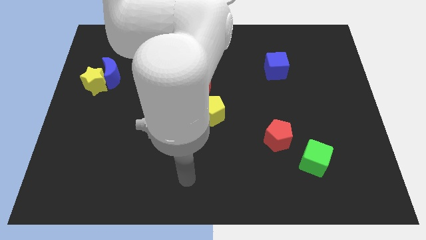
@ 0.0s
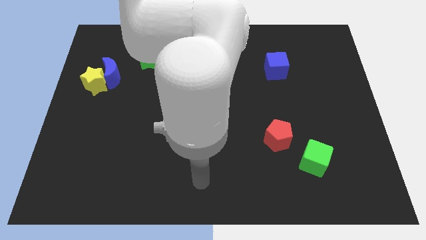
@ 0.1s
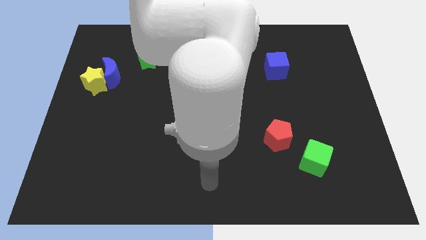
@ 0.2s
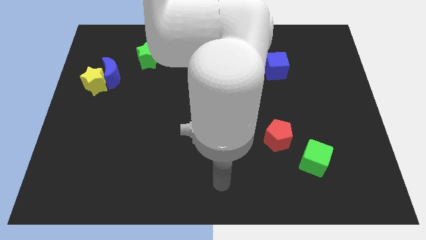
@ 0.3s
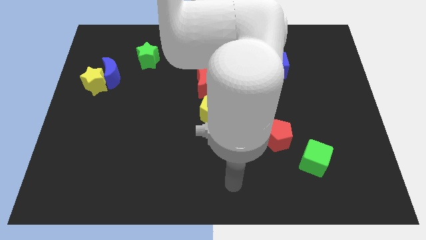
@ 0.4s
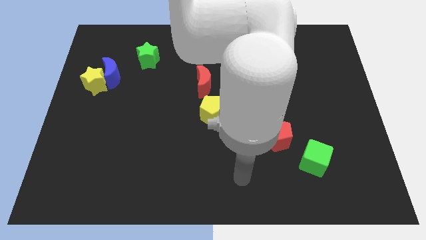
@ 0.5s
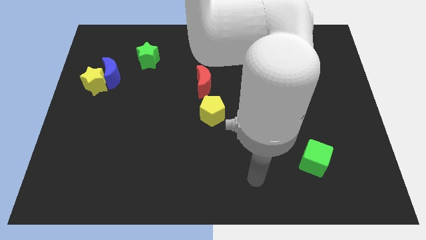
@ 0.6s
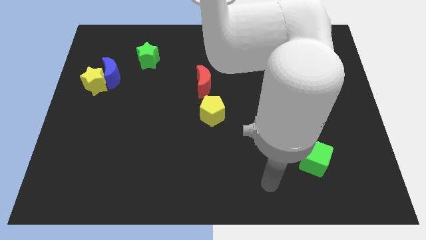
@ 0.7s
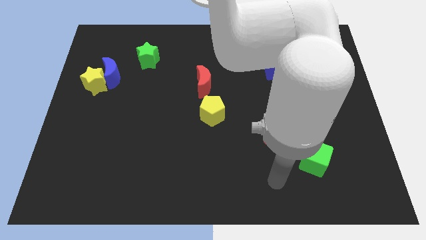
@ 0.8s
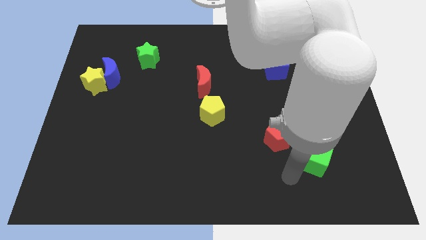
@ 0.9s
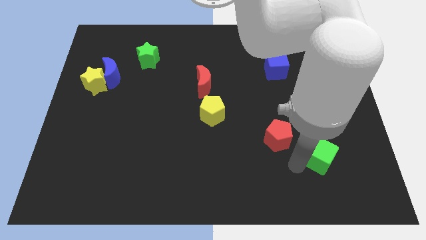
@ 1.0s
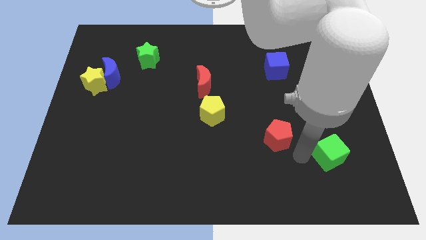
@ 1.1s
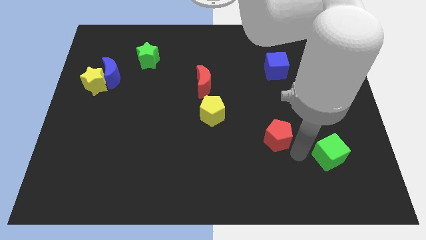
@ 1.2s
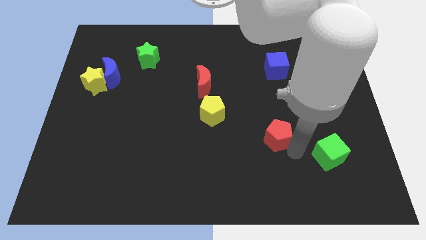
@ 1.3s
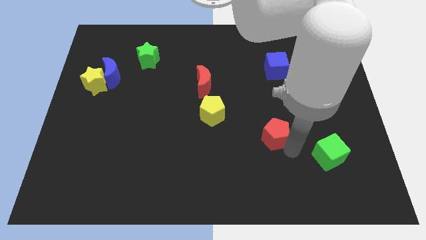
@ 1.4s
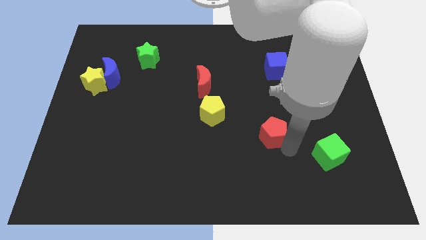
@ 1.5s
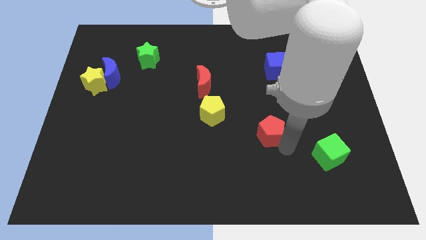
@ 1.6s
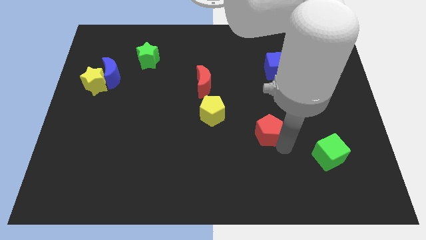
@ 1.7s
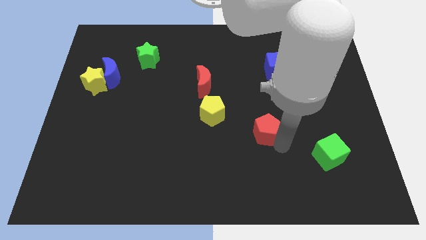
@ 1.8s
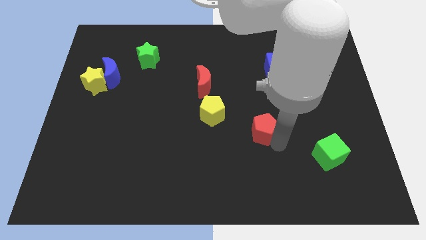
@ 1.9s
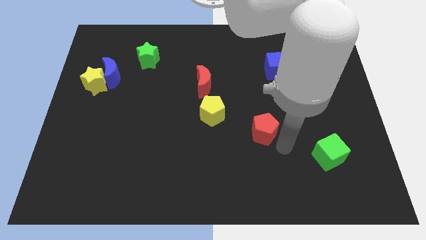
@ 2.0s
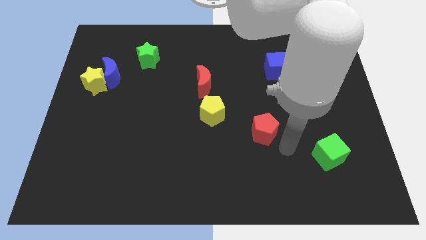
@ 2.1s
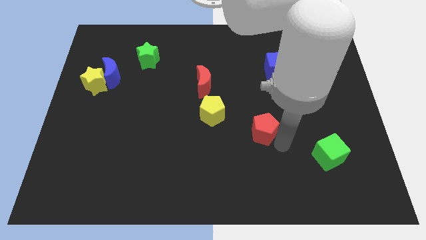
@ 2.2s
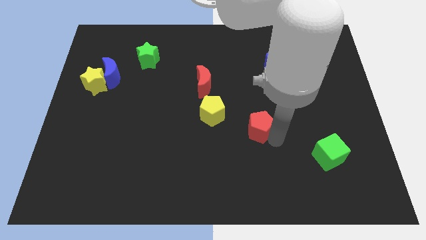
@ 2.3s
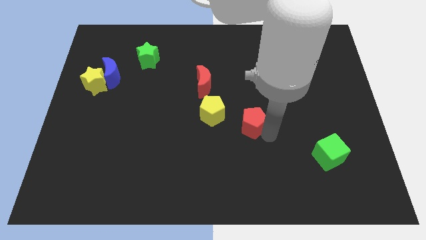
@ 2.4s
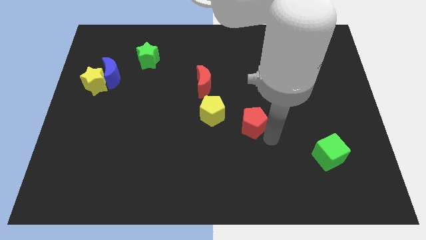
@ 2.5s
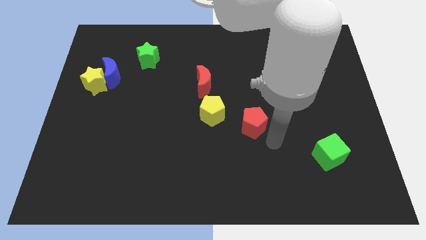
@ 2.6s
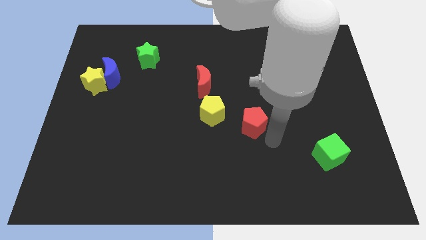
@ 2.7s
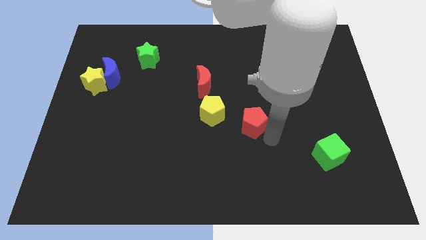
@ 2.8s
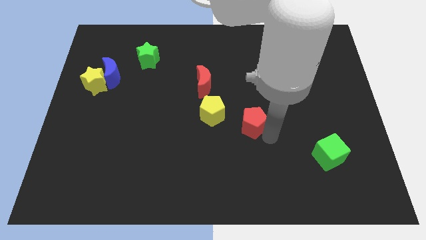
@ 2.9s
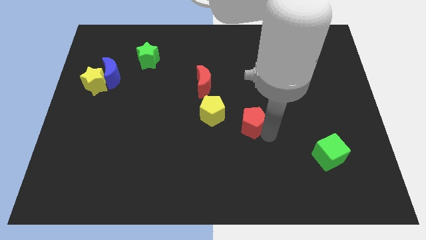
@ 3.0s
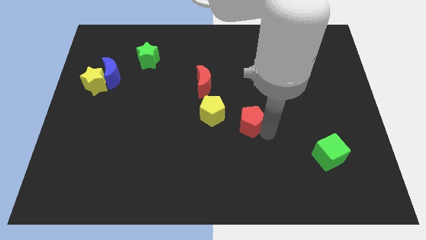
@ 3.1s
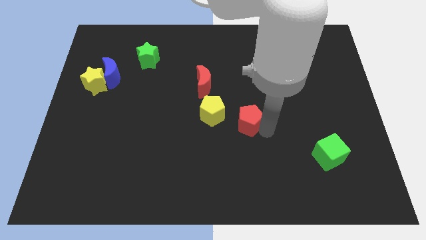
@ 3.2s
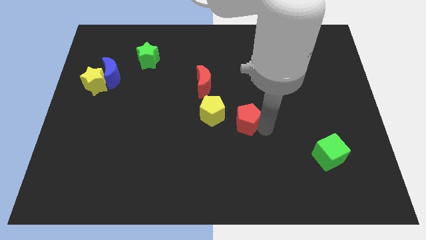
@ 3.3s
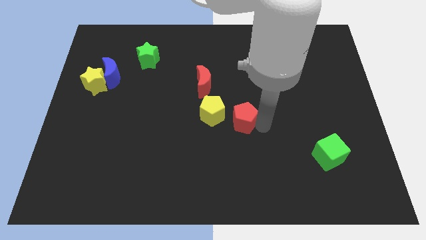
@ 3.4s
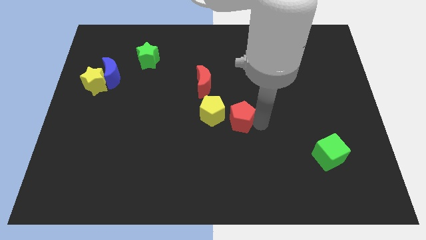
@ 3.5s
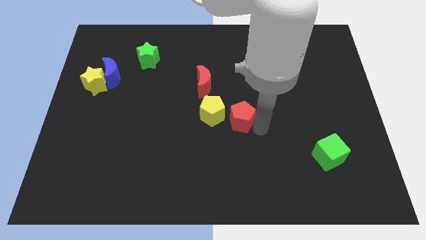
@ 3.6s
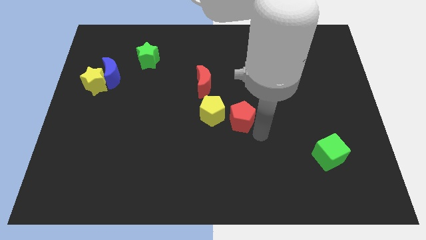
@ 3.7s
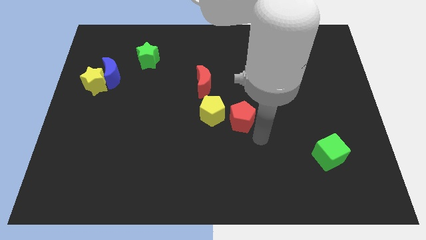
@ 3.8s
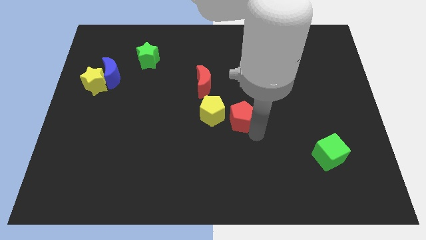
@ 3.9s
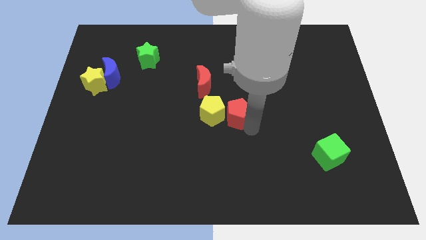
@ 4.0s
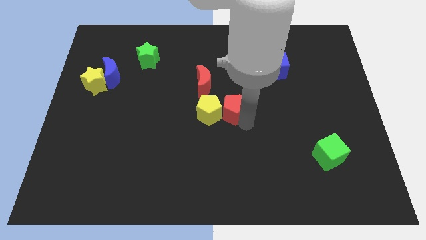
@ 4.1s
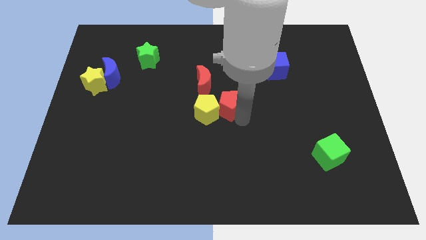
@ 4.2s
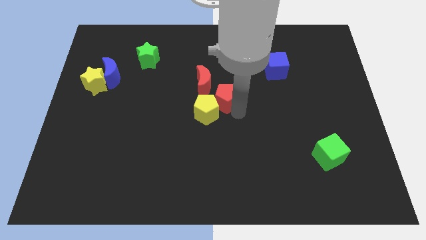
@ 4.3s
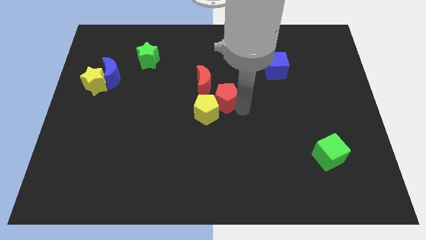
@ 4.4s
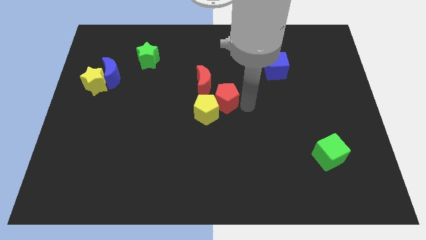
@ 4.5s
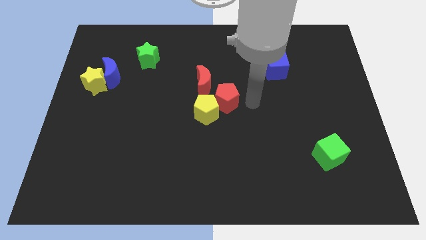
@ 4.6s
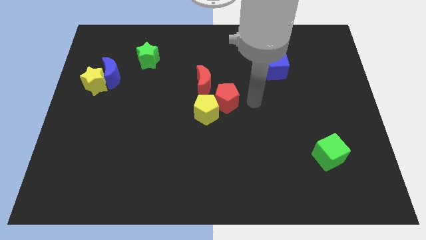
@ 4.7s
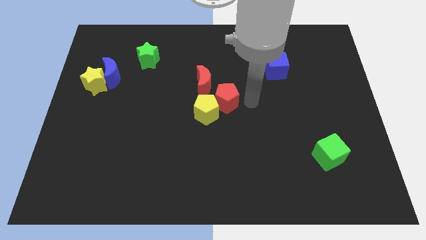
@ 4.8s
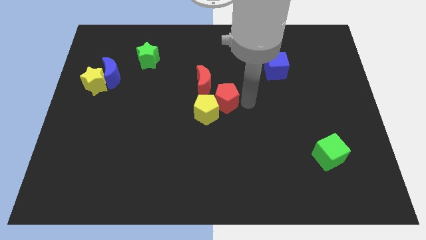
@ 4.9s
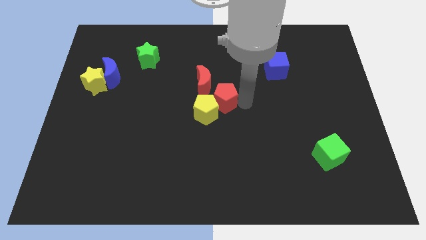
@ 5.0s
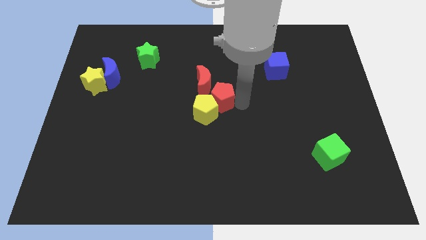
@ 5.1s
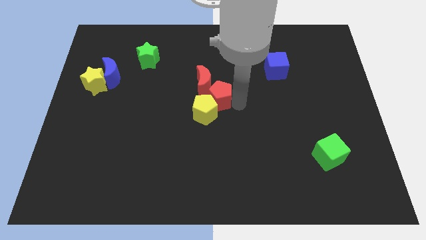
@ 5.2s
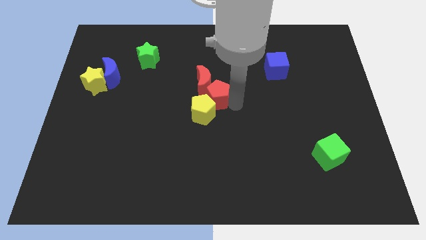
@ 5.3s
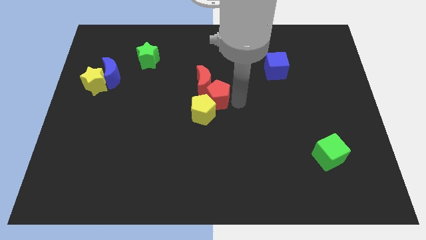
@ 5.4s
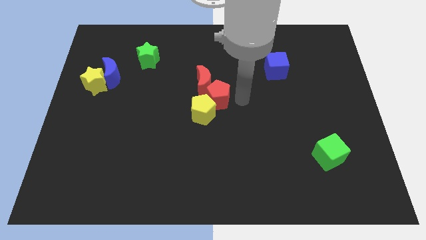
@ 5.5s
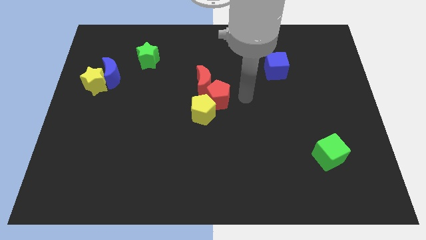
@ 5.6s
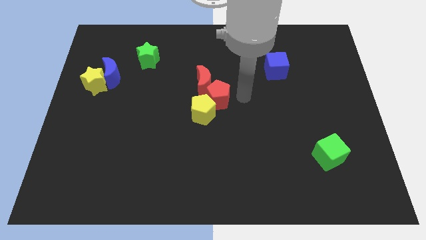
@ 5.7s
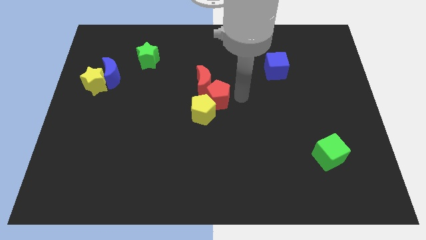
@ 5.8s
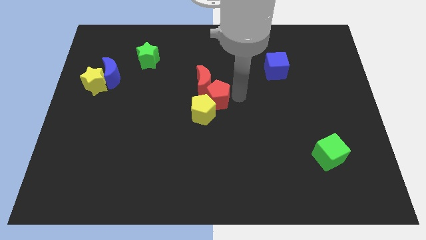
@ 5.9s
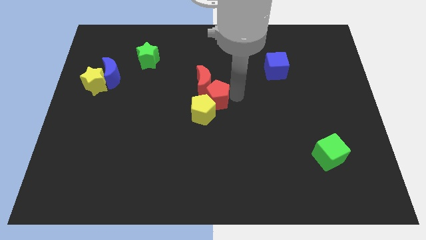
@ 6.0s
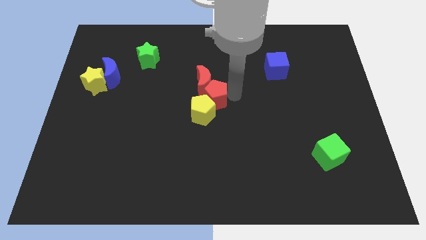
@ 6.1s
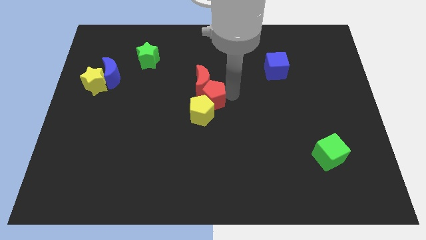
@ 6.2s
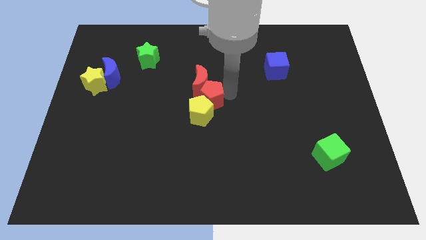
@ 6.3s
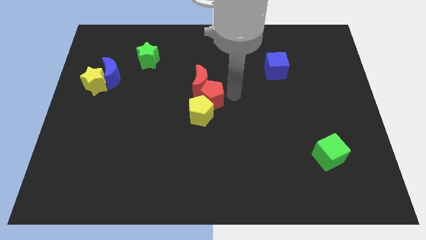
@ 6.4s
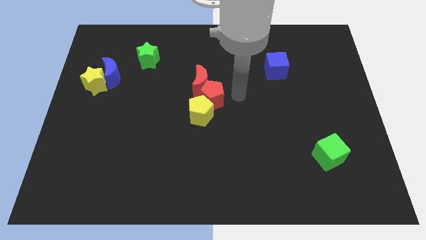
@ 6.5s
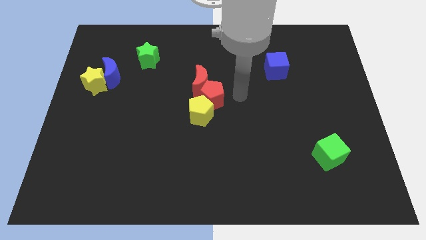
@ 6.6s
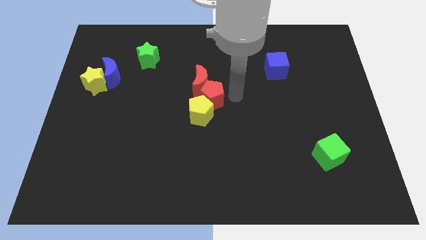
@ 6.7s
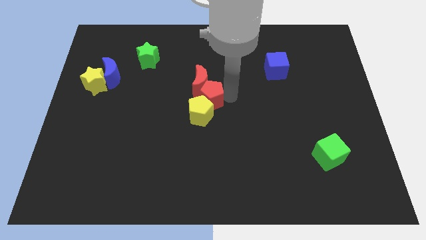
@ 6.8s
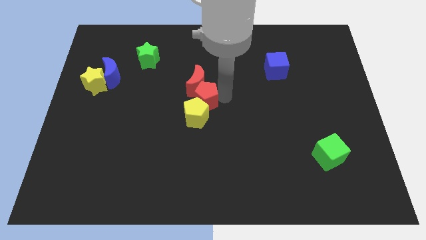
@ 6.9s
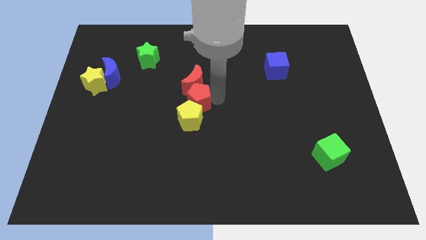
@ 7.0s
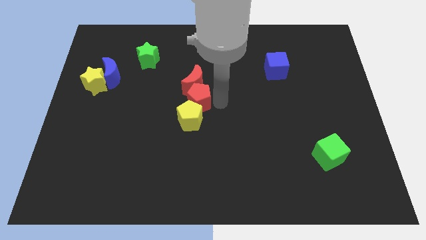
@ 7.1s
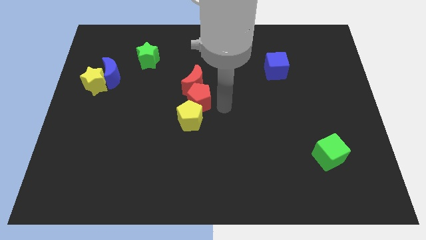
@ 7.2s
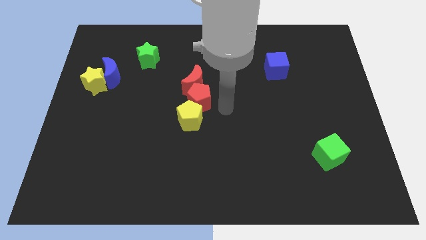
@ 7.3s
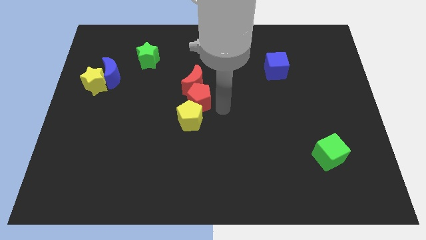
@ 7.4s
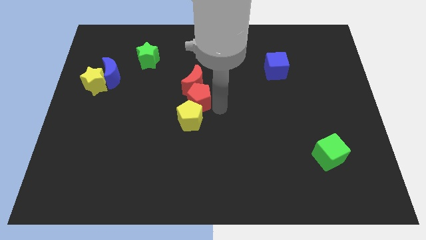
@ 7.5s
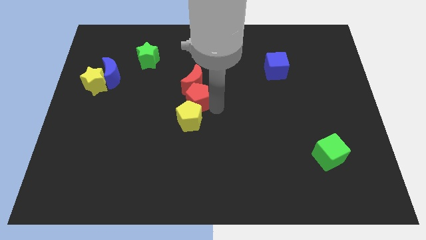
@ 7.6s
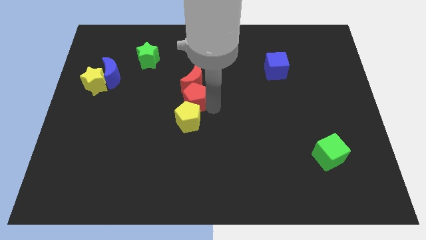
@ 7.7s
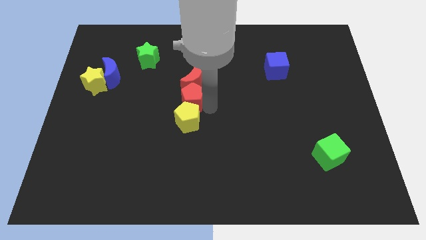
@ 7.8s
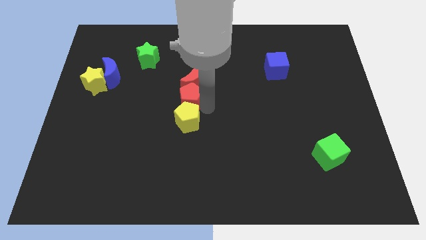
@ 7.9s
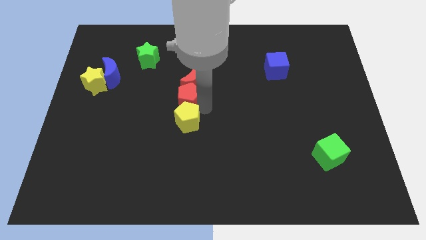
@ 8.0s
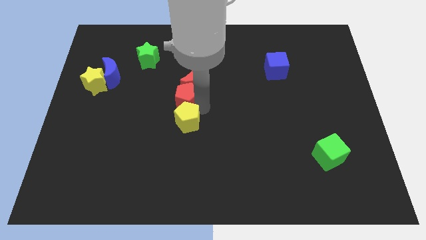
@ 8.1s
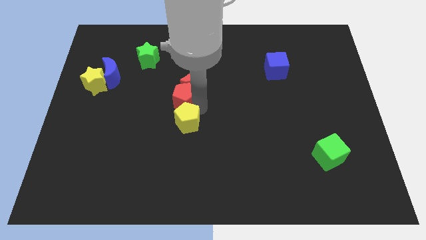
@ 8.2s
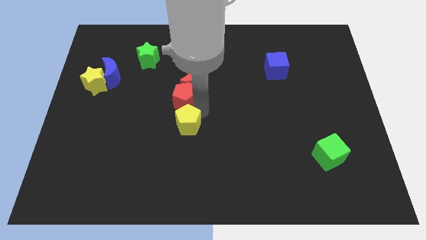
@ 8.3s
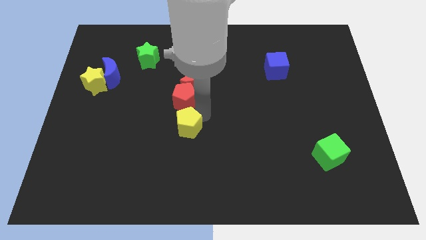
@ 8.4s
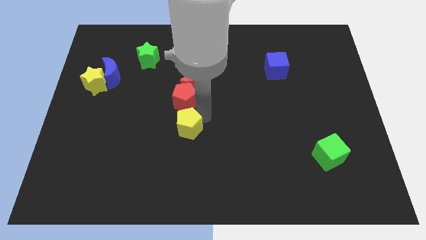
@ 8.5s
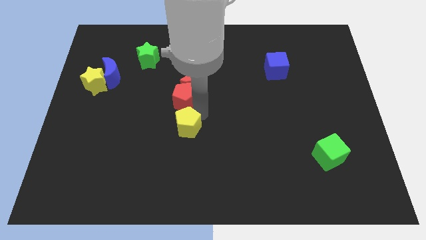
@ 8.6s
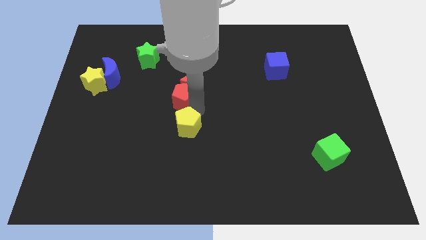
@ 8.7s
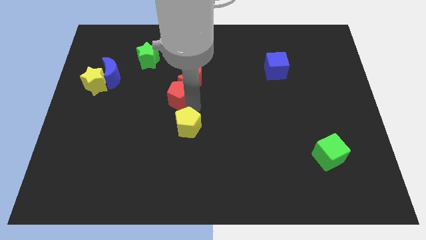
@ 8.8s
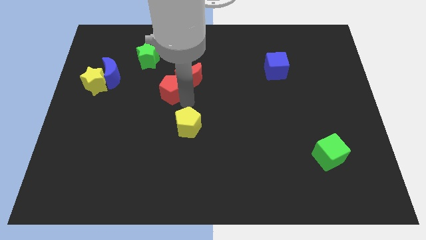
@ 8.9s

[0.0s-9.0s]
put the red pentagon just left of the red moon
